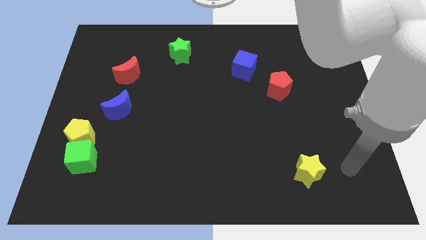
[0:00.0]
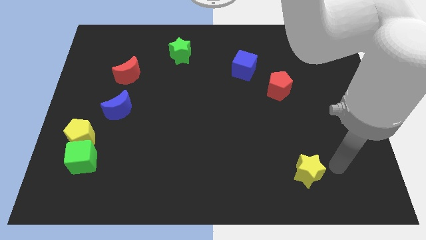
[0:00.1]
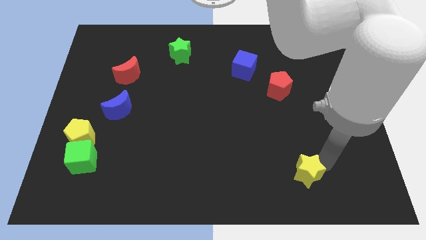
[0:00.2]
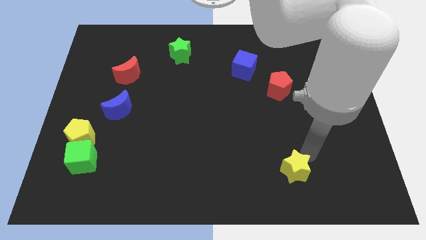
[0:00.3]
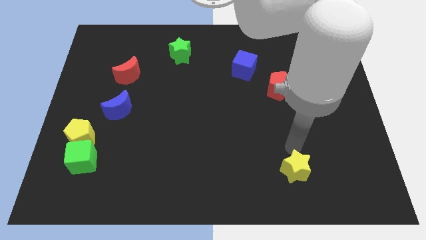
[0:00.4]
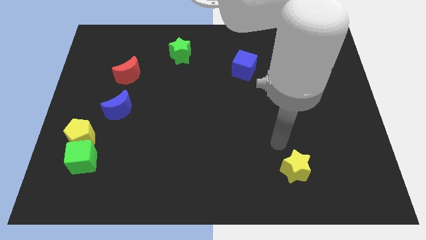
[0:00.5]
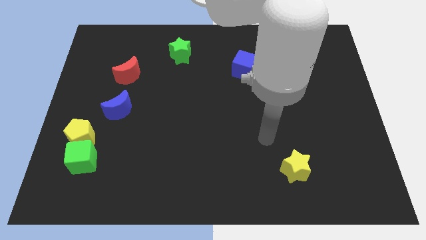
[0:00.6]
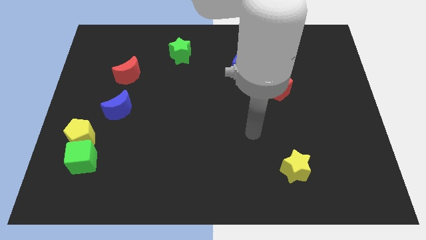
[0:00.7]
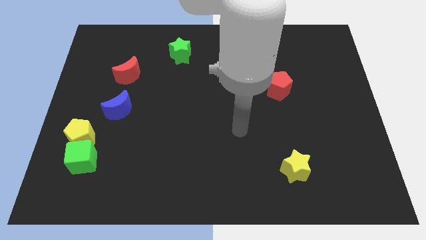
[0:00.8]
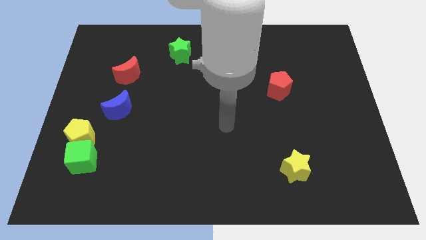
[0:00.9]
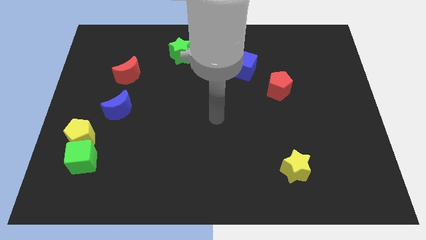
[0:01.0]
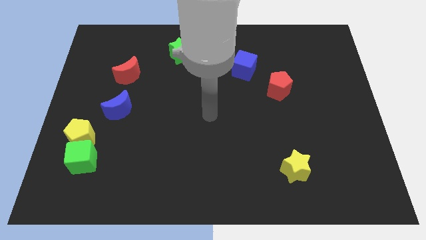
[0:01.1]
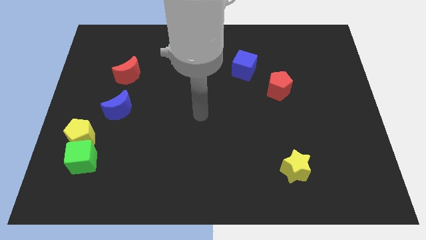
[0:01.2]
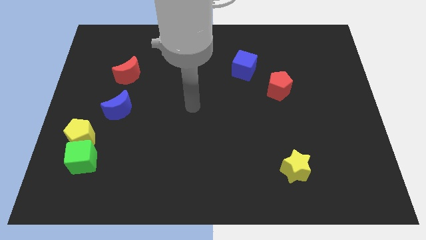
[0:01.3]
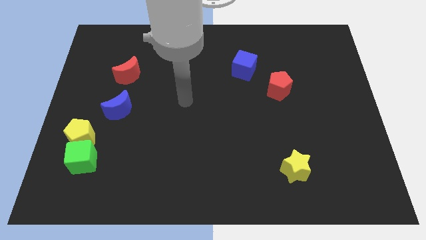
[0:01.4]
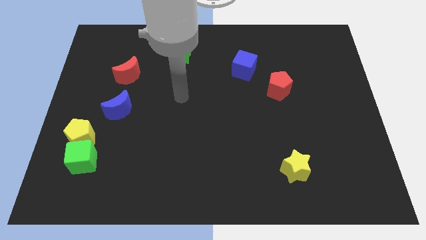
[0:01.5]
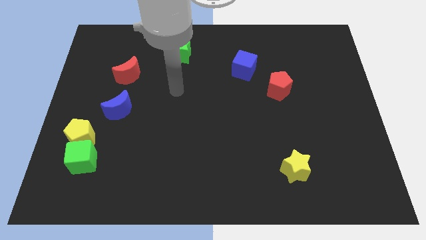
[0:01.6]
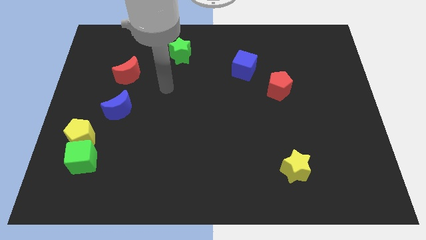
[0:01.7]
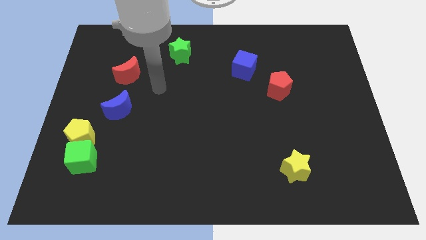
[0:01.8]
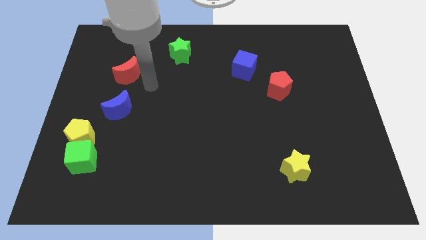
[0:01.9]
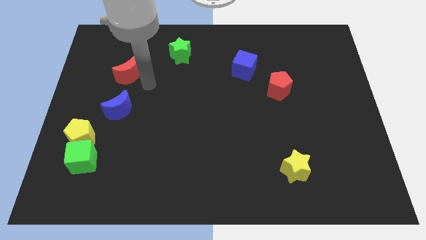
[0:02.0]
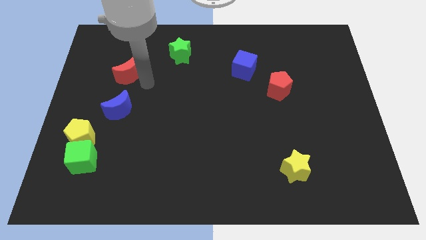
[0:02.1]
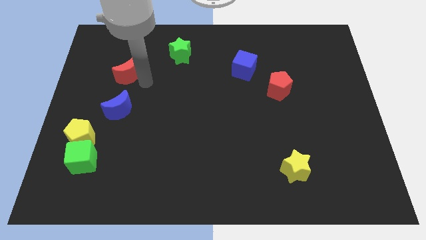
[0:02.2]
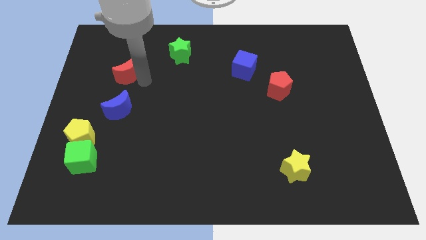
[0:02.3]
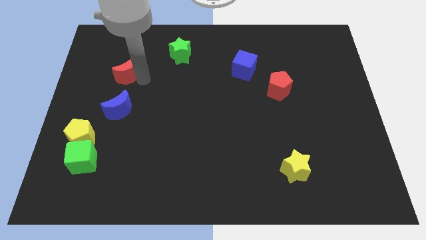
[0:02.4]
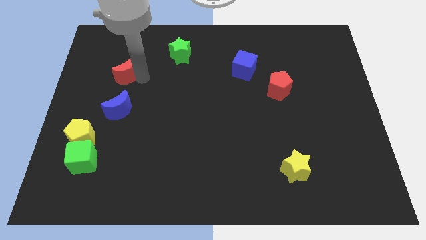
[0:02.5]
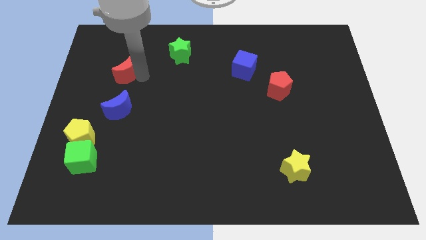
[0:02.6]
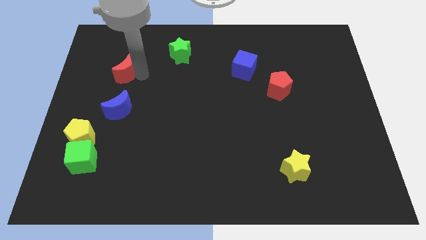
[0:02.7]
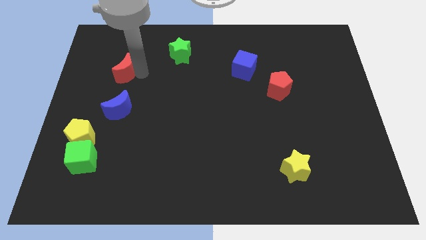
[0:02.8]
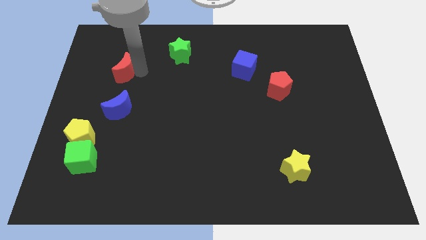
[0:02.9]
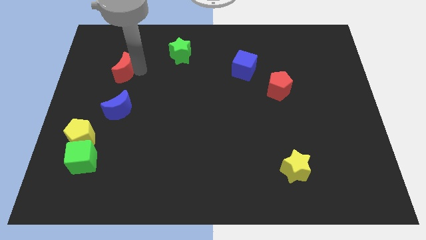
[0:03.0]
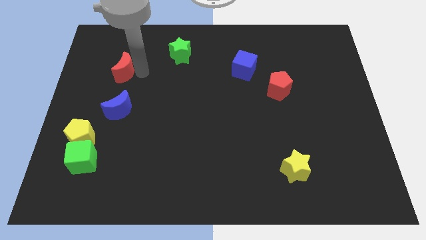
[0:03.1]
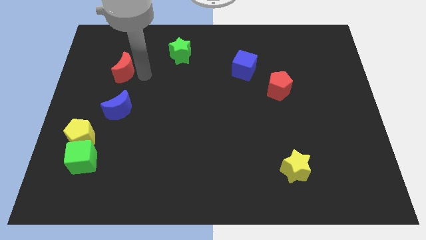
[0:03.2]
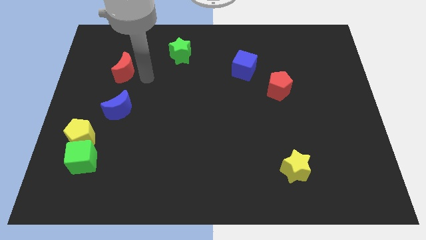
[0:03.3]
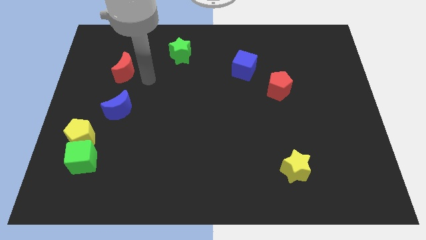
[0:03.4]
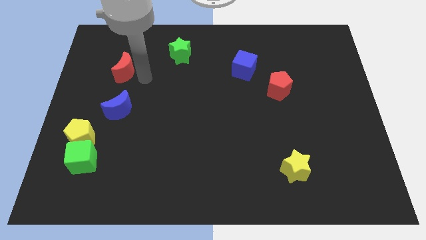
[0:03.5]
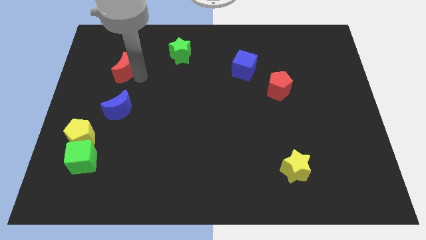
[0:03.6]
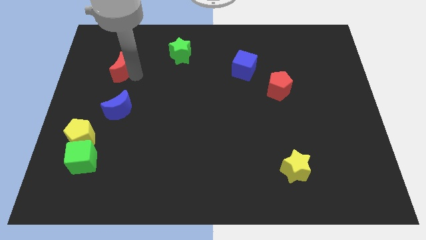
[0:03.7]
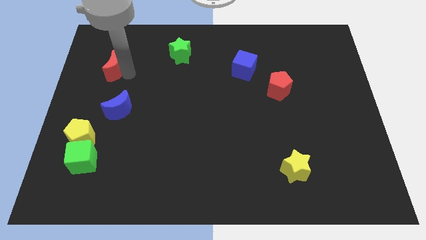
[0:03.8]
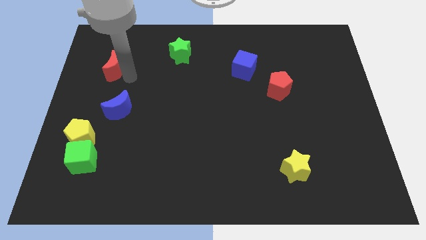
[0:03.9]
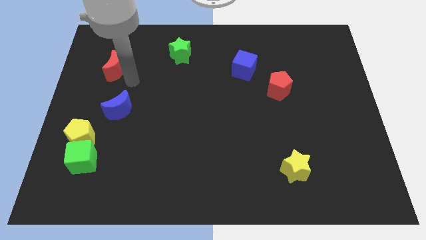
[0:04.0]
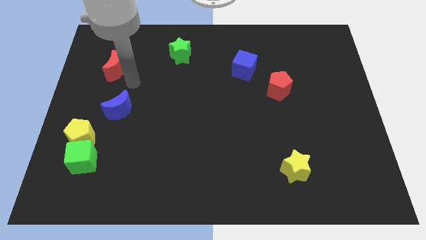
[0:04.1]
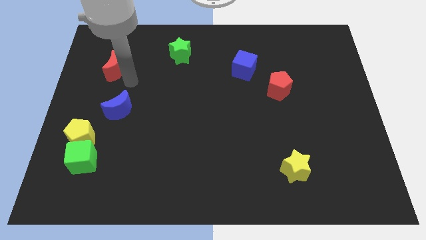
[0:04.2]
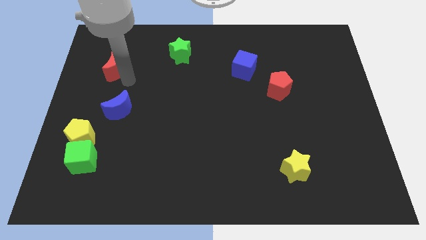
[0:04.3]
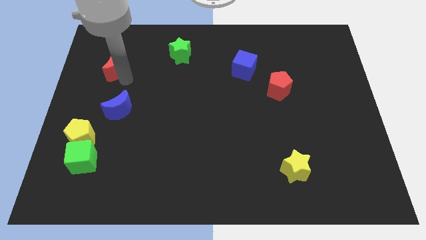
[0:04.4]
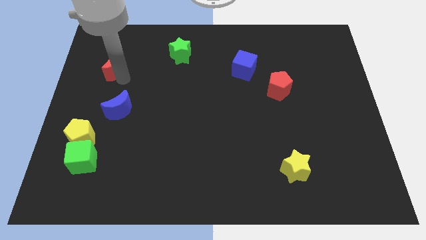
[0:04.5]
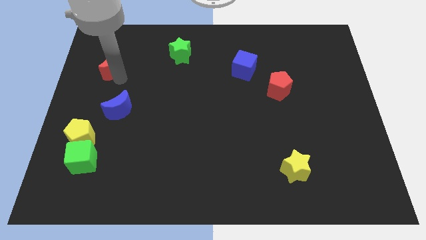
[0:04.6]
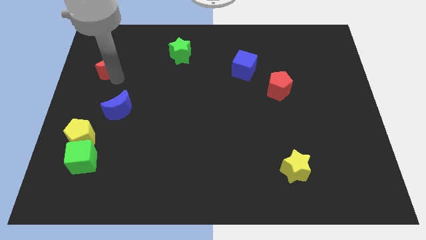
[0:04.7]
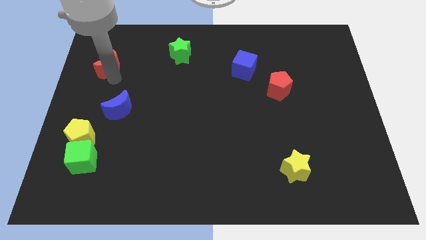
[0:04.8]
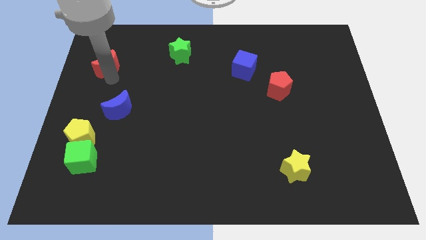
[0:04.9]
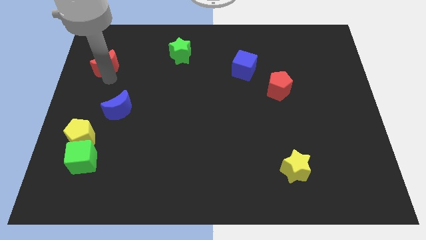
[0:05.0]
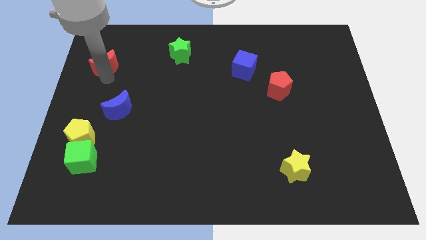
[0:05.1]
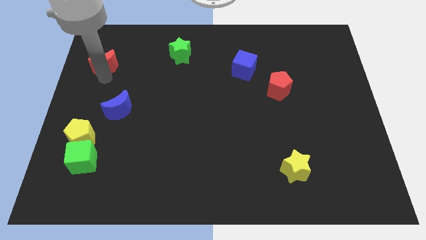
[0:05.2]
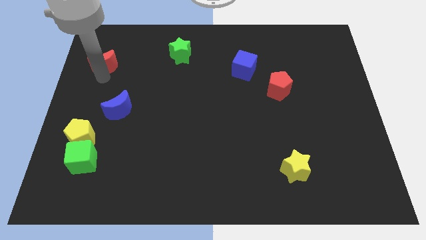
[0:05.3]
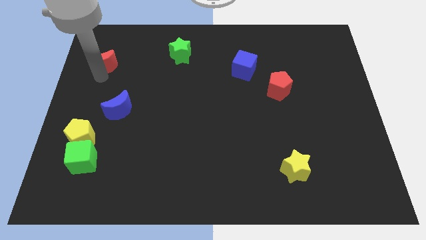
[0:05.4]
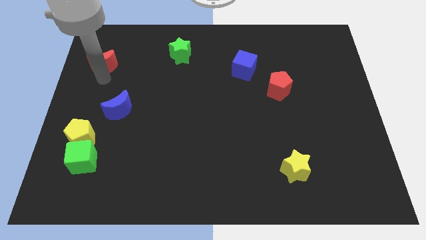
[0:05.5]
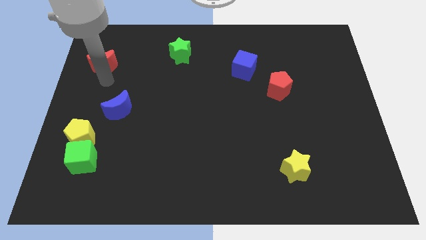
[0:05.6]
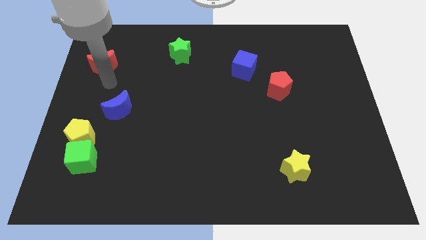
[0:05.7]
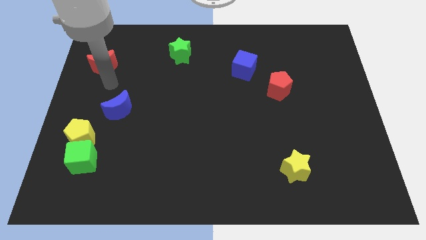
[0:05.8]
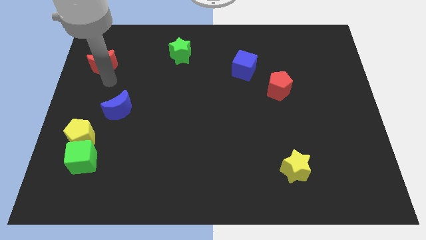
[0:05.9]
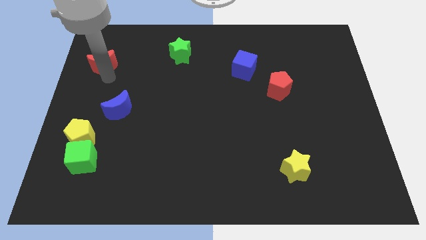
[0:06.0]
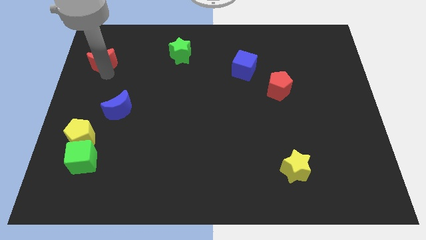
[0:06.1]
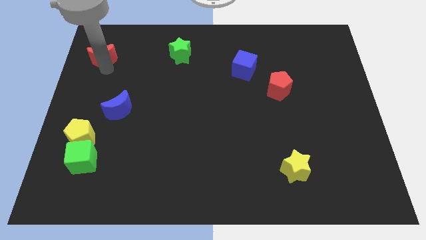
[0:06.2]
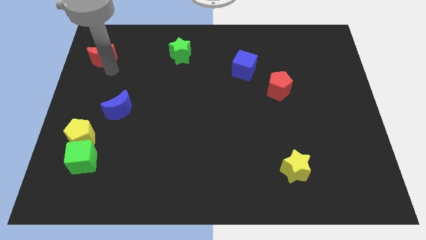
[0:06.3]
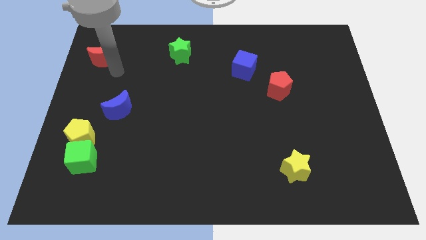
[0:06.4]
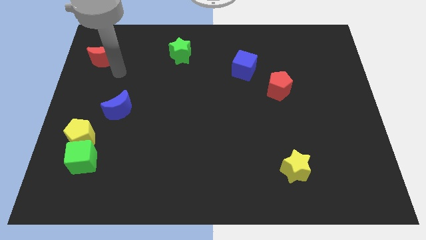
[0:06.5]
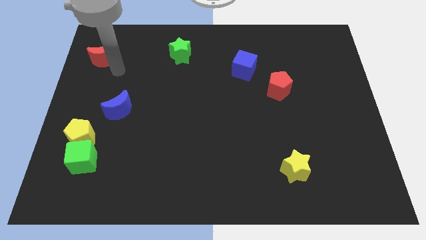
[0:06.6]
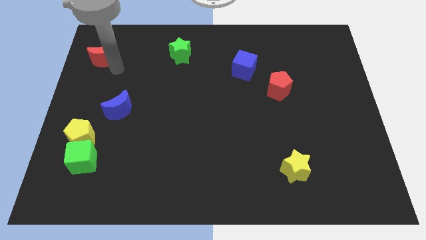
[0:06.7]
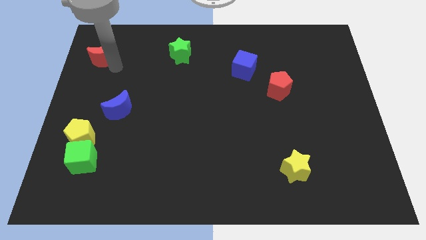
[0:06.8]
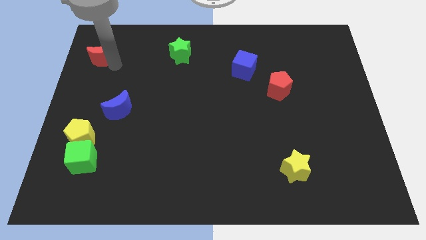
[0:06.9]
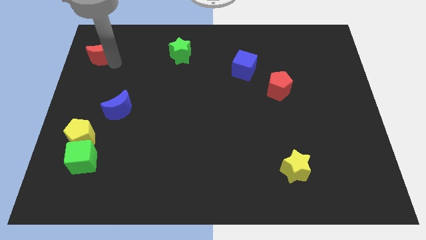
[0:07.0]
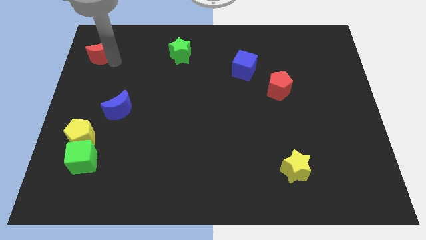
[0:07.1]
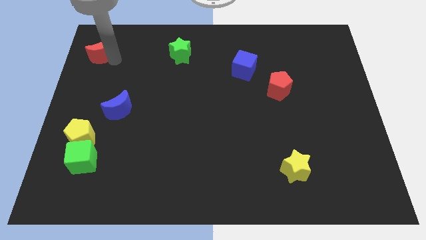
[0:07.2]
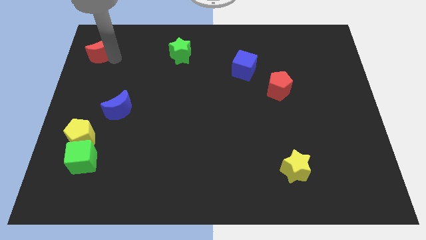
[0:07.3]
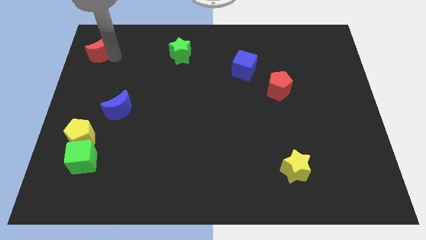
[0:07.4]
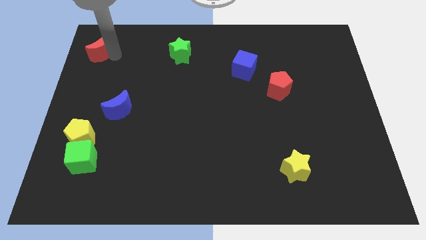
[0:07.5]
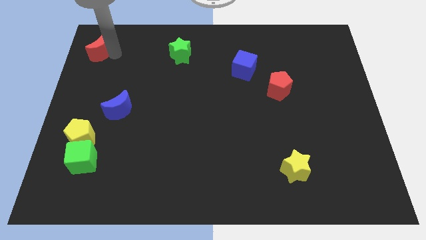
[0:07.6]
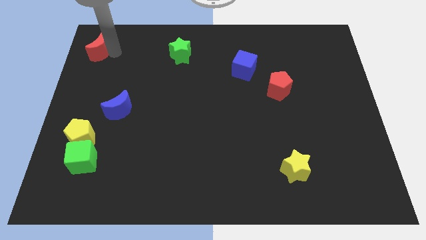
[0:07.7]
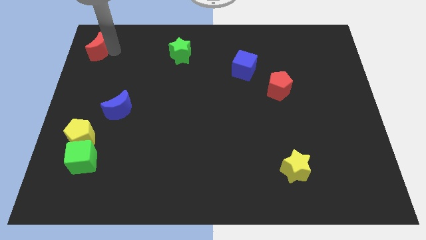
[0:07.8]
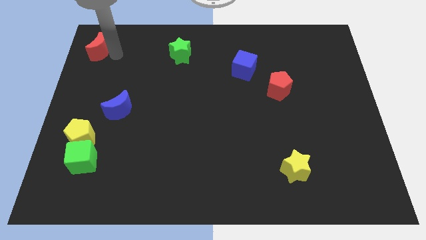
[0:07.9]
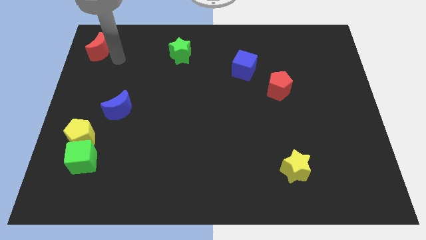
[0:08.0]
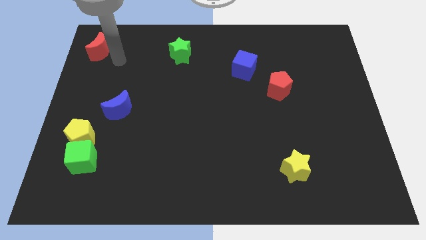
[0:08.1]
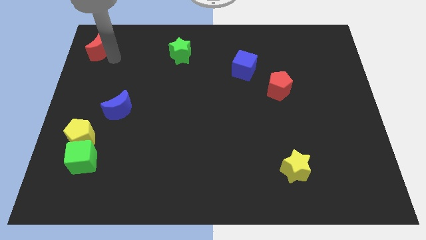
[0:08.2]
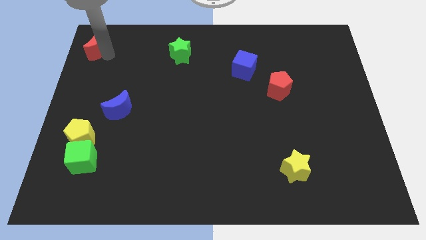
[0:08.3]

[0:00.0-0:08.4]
move the red moon to the upper left corner
